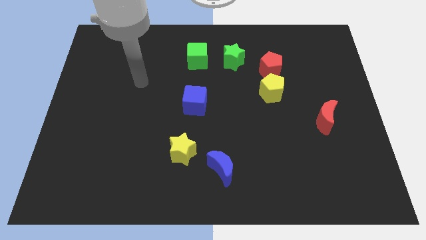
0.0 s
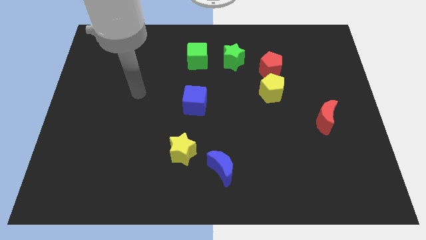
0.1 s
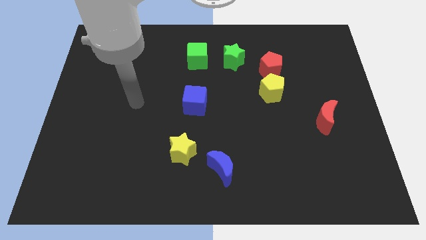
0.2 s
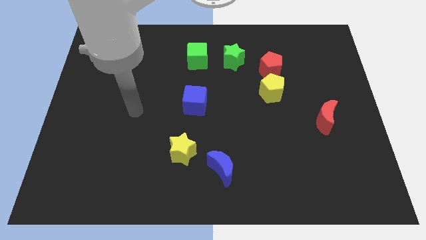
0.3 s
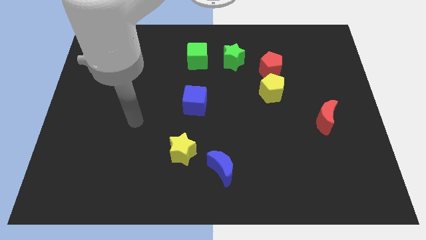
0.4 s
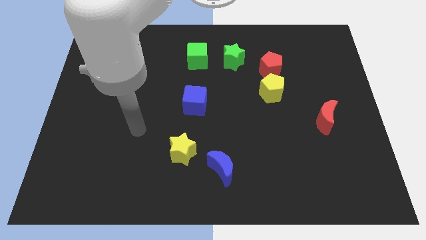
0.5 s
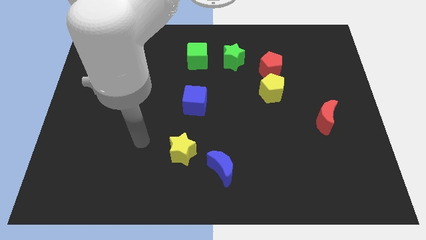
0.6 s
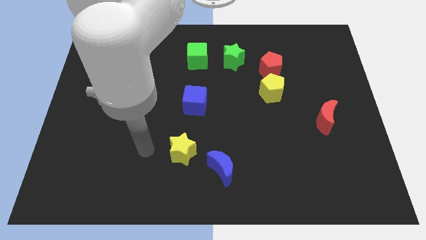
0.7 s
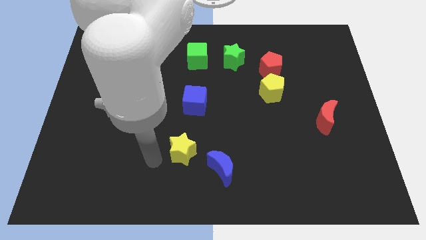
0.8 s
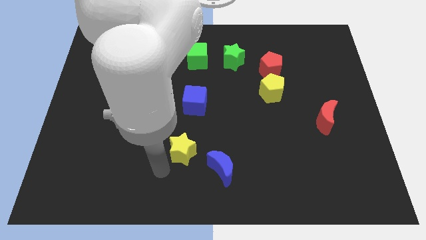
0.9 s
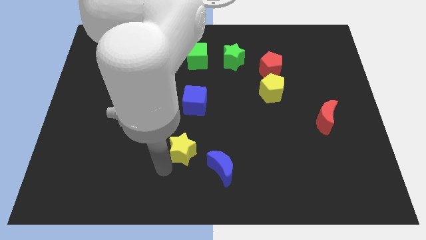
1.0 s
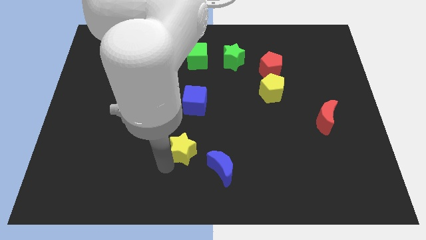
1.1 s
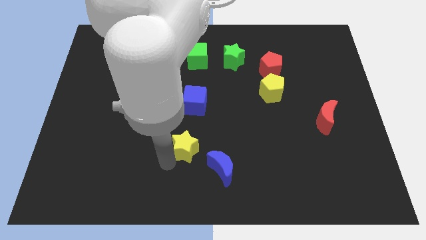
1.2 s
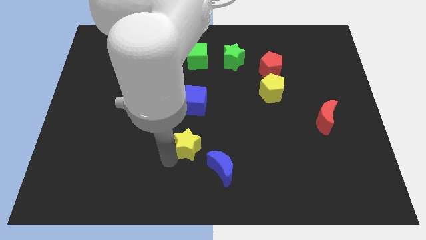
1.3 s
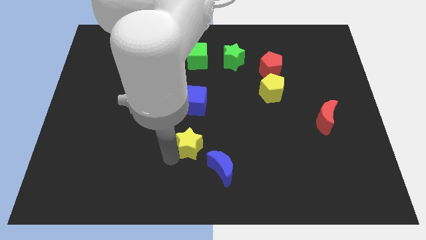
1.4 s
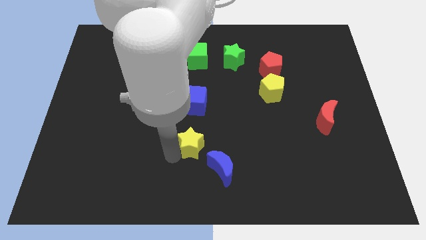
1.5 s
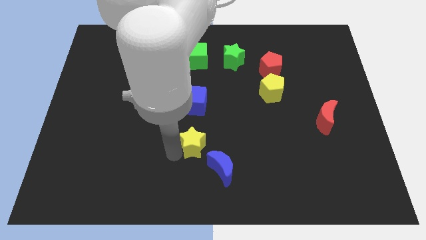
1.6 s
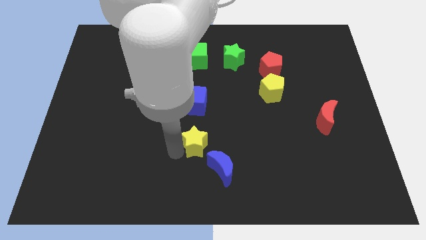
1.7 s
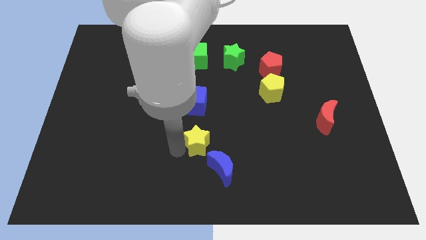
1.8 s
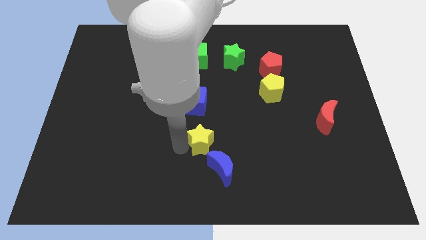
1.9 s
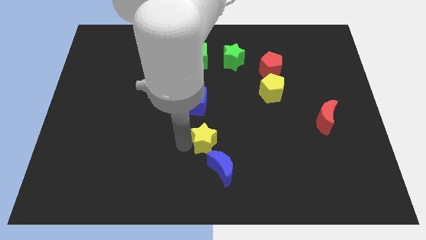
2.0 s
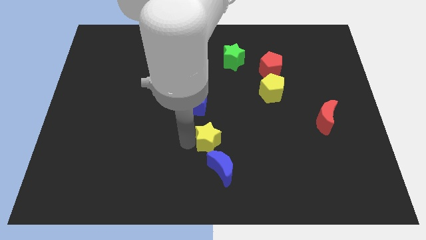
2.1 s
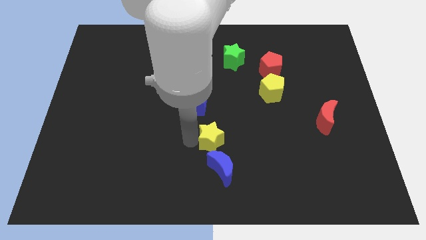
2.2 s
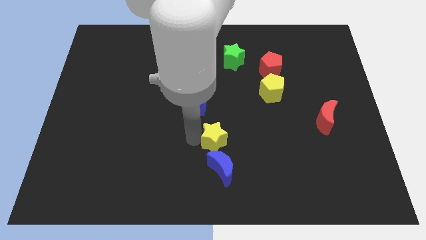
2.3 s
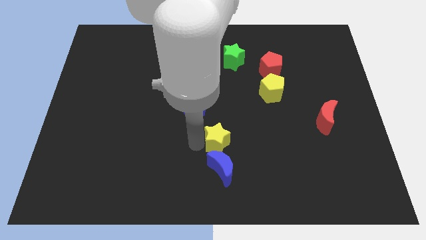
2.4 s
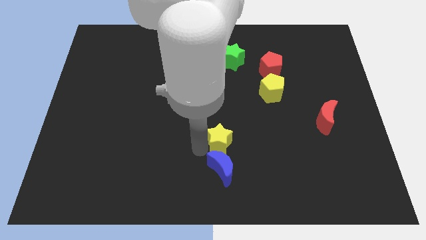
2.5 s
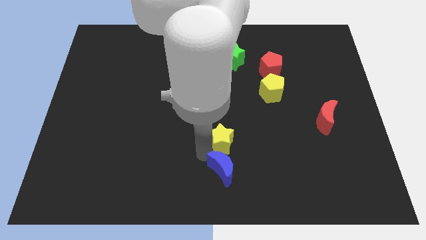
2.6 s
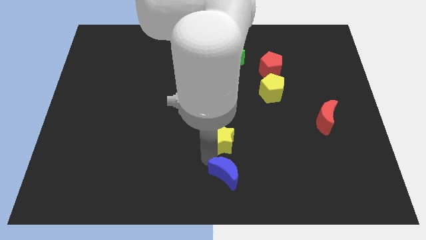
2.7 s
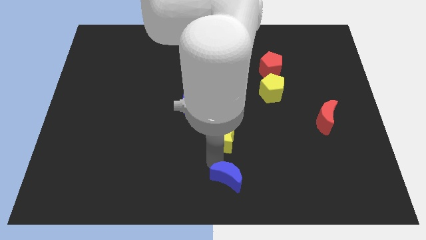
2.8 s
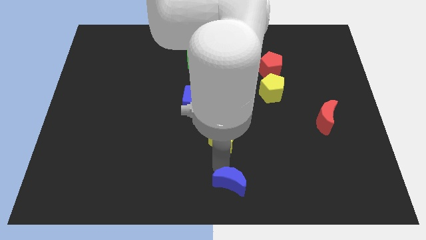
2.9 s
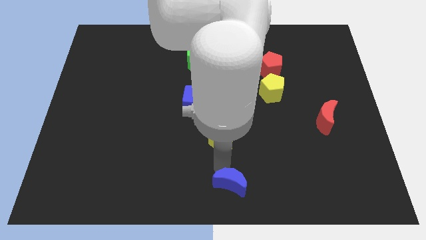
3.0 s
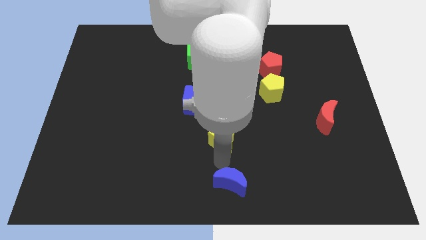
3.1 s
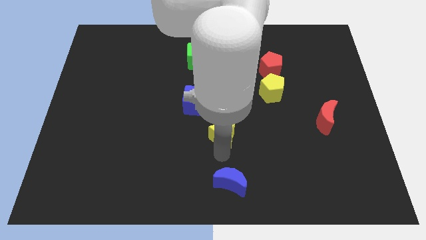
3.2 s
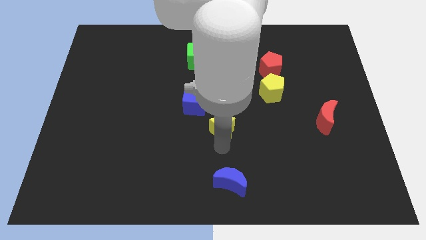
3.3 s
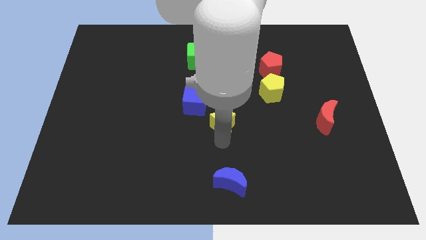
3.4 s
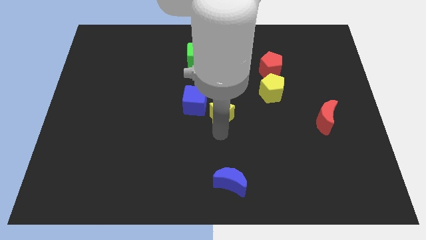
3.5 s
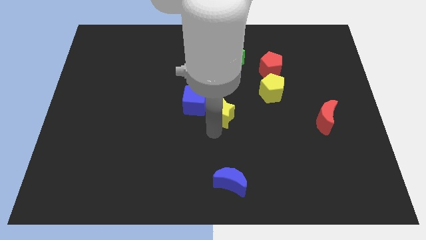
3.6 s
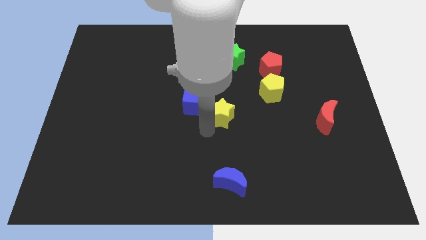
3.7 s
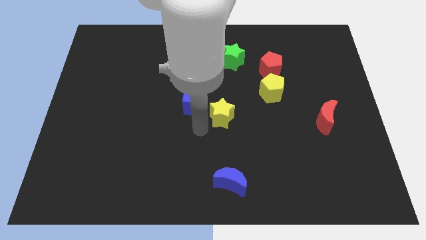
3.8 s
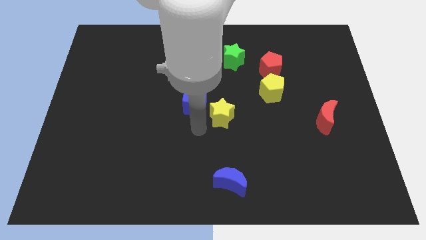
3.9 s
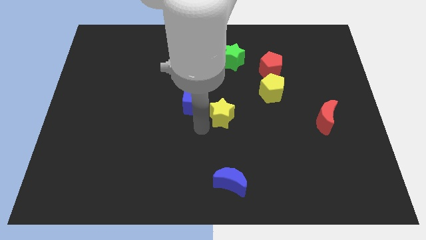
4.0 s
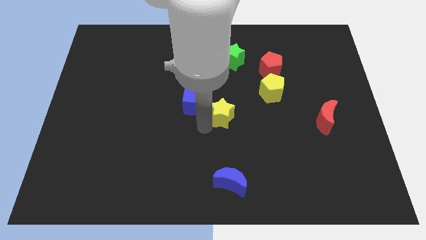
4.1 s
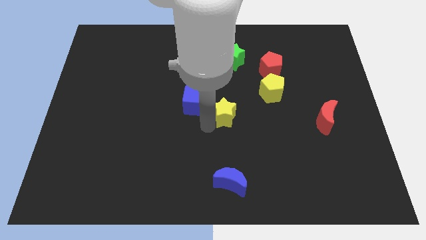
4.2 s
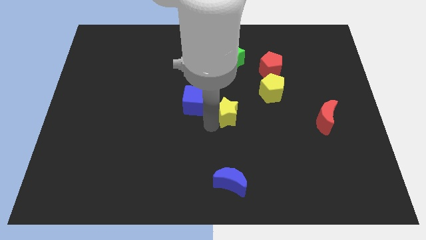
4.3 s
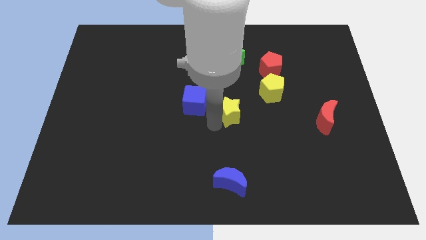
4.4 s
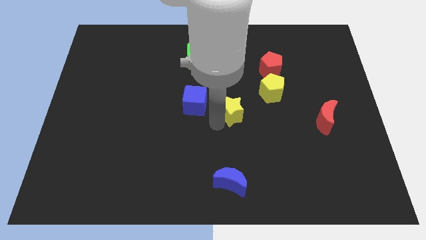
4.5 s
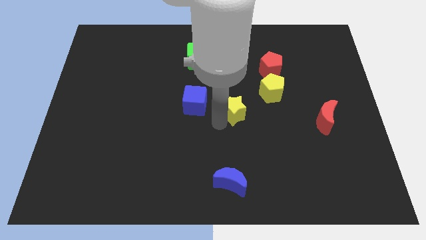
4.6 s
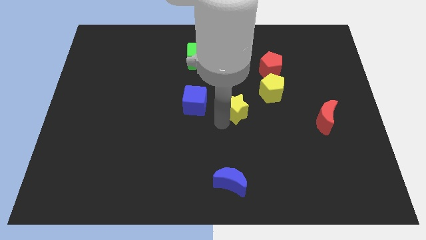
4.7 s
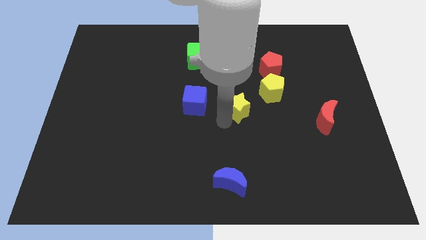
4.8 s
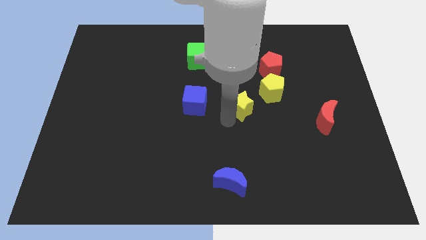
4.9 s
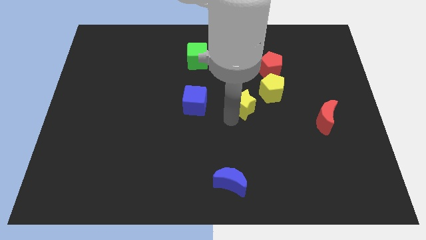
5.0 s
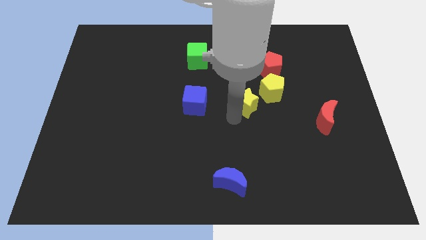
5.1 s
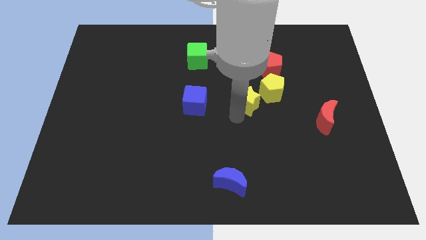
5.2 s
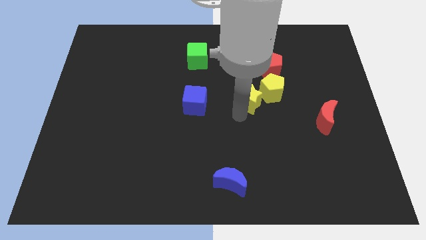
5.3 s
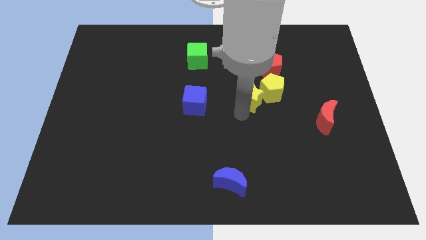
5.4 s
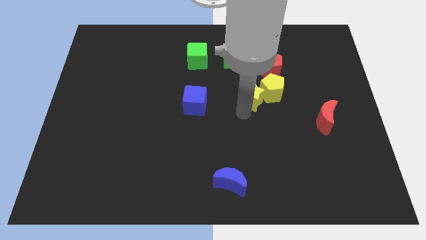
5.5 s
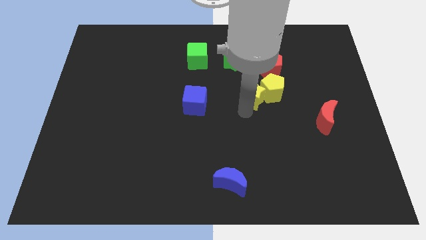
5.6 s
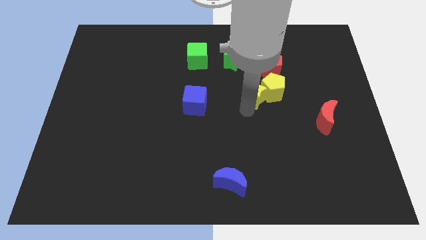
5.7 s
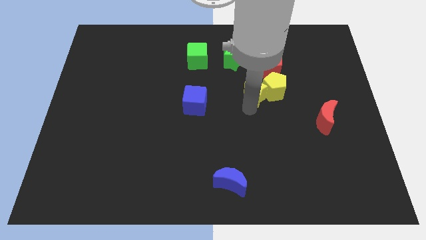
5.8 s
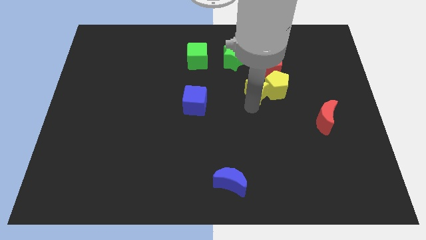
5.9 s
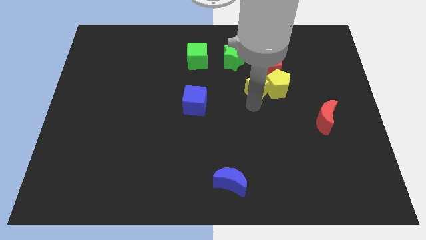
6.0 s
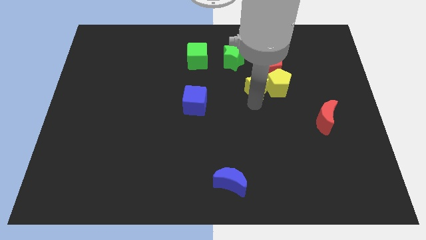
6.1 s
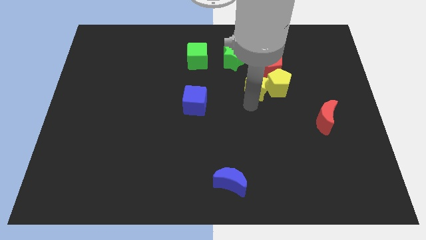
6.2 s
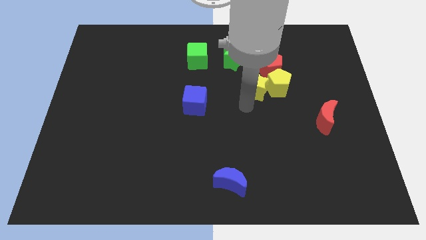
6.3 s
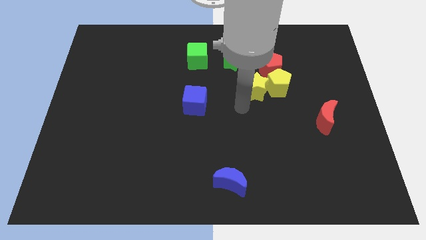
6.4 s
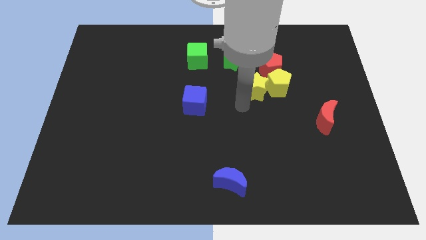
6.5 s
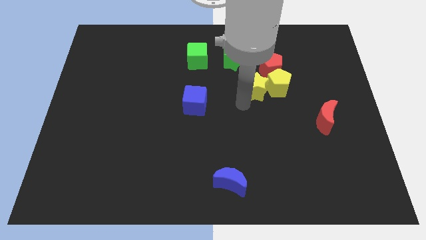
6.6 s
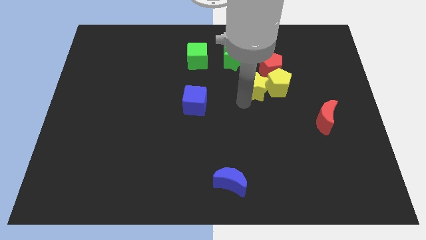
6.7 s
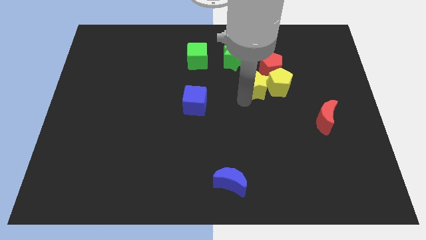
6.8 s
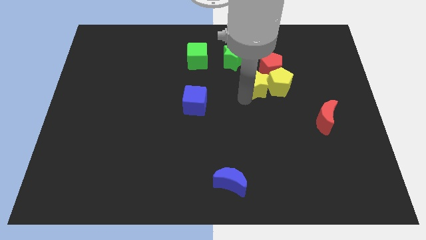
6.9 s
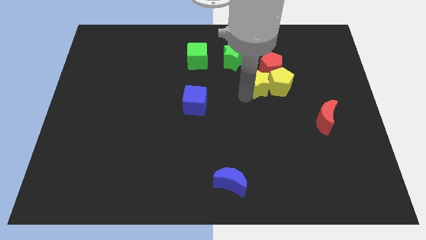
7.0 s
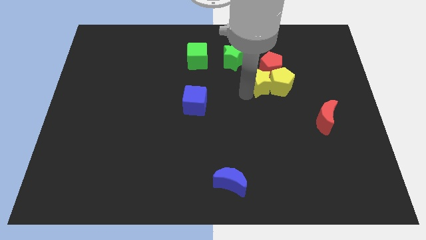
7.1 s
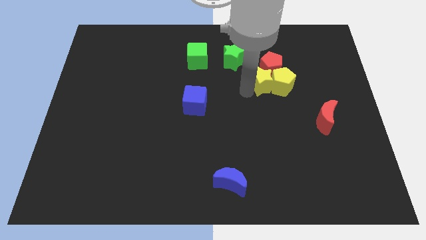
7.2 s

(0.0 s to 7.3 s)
move the yellow star towards the red pentagon

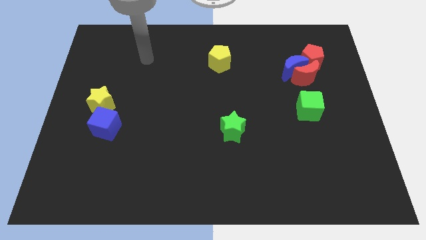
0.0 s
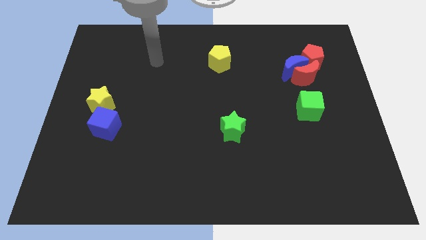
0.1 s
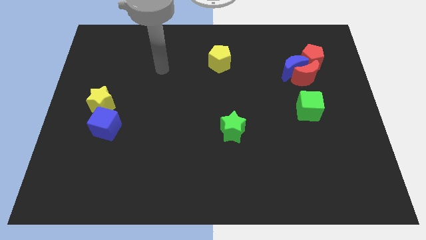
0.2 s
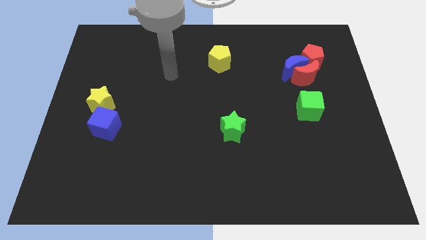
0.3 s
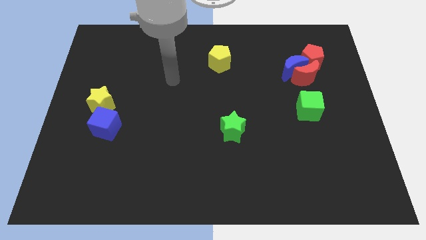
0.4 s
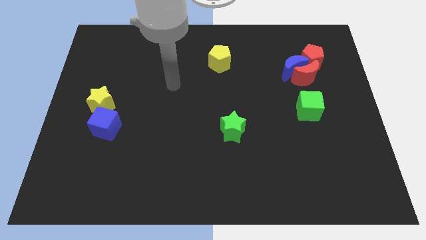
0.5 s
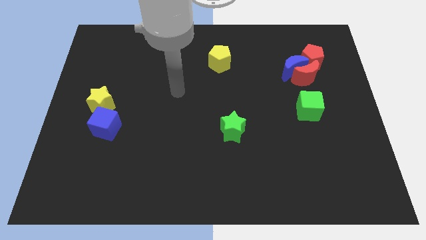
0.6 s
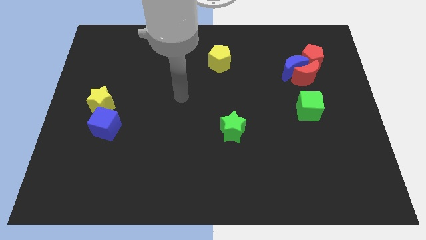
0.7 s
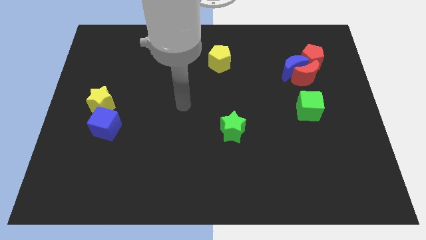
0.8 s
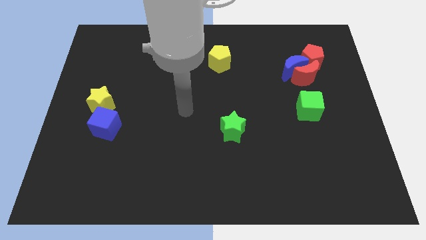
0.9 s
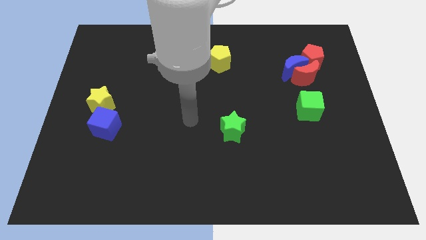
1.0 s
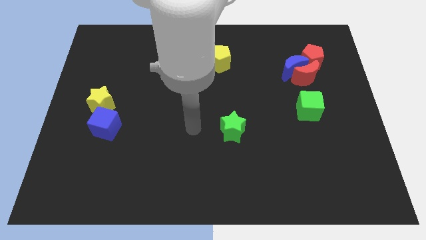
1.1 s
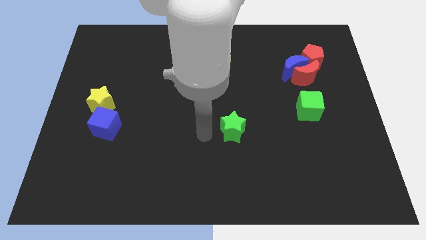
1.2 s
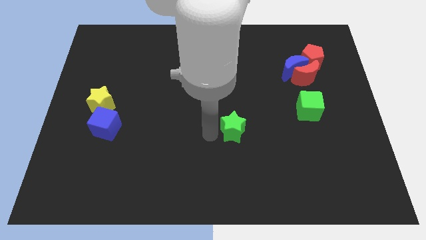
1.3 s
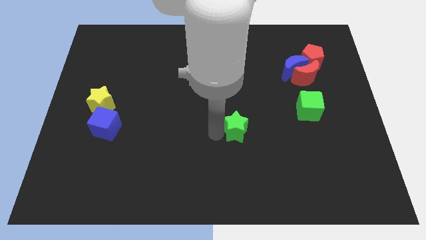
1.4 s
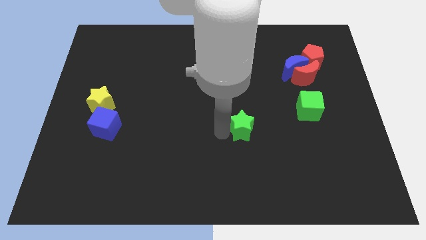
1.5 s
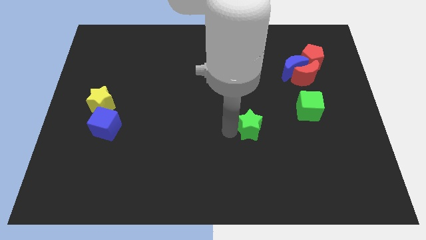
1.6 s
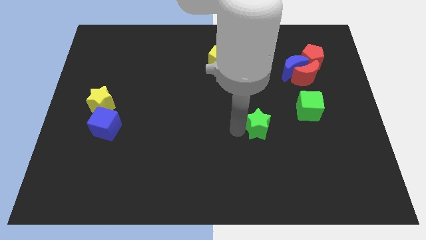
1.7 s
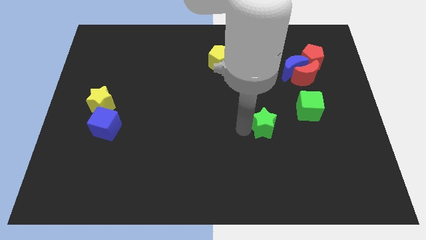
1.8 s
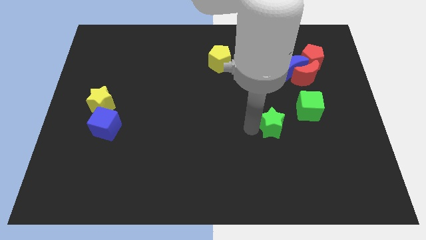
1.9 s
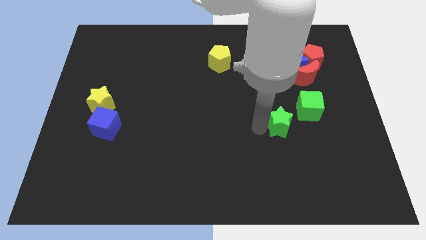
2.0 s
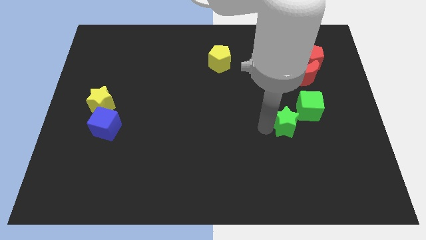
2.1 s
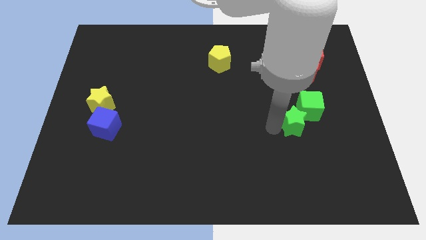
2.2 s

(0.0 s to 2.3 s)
move the green star next to the green cube
